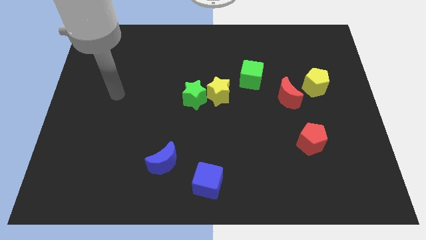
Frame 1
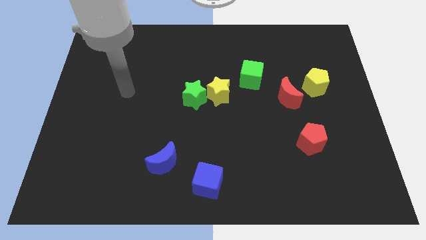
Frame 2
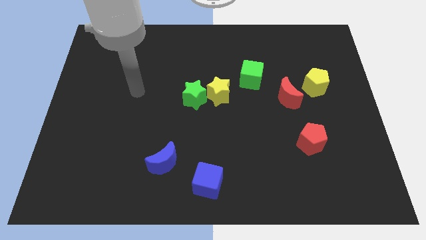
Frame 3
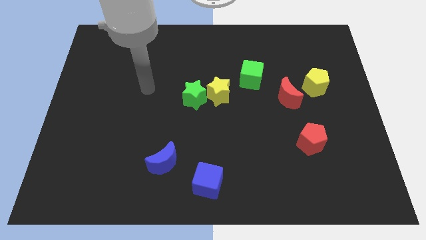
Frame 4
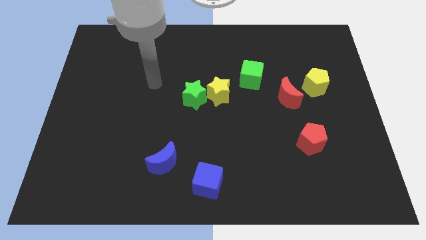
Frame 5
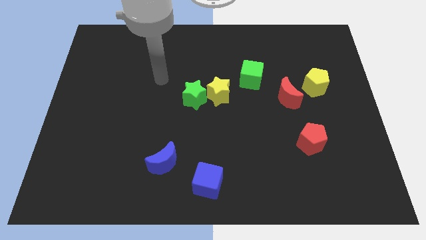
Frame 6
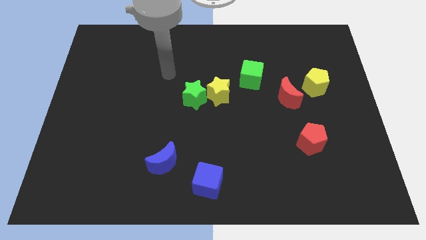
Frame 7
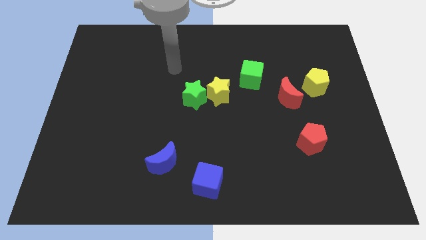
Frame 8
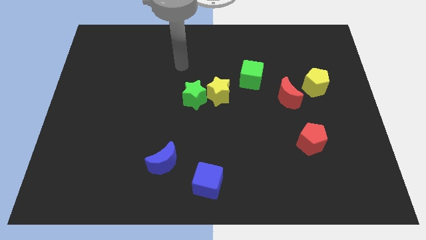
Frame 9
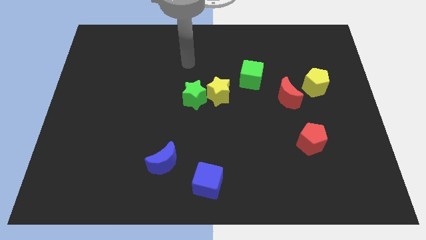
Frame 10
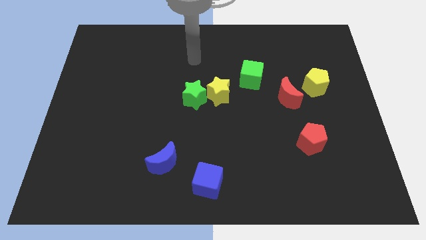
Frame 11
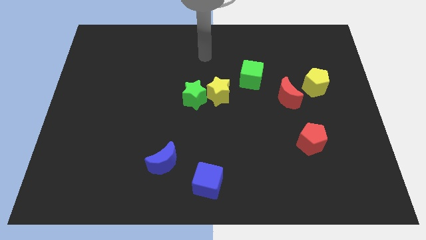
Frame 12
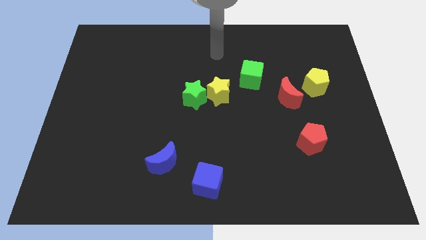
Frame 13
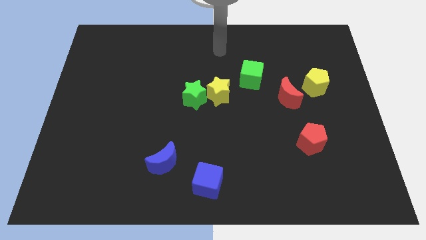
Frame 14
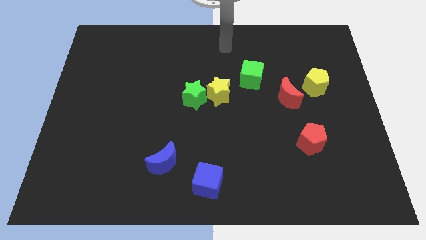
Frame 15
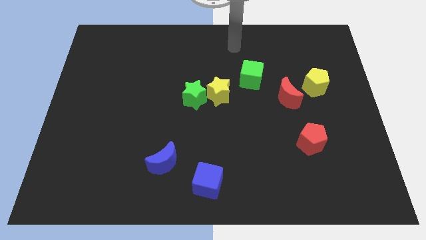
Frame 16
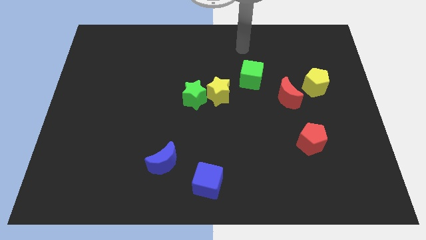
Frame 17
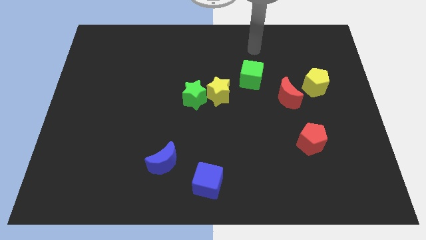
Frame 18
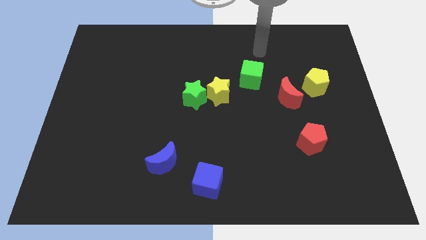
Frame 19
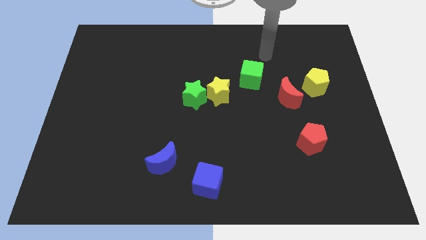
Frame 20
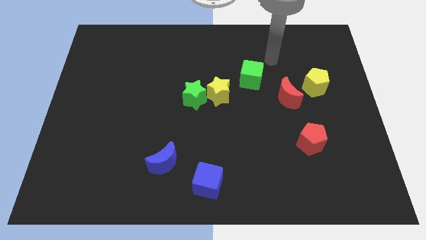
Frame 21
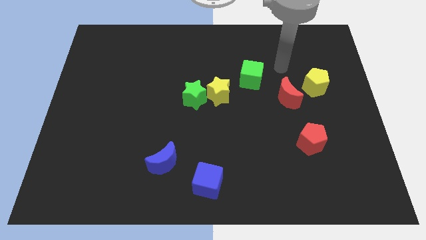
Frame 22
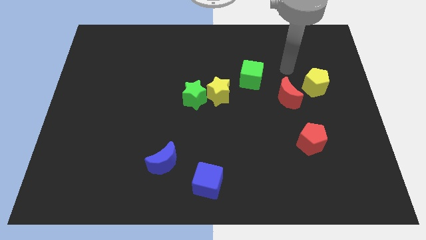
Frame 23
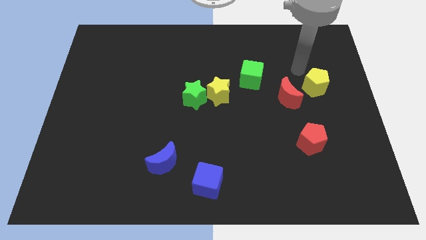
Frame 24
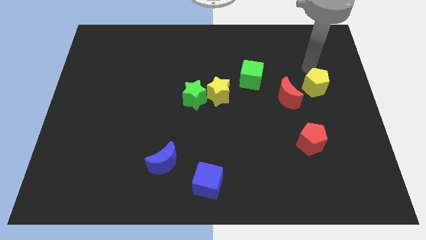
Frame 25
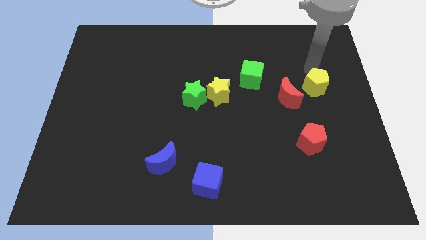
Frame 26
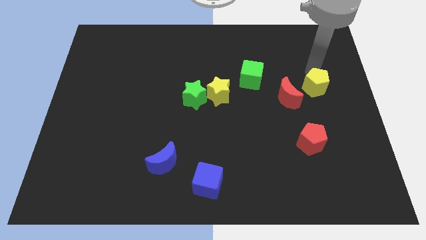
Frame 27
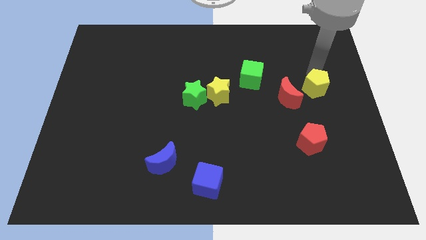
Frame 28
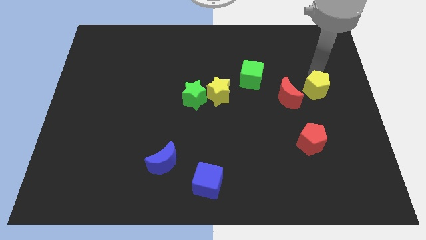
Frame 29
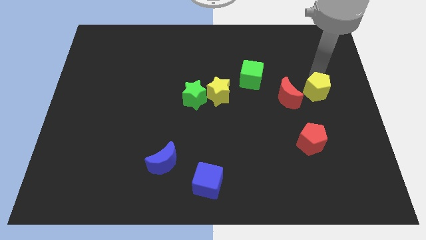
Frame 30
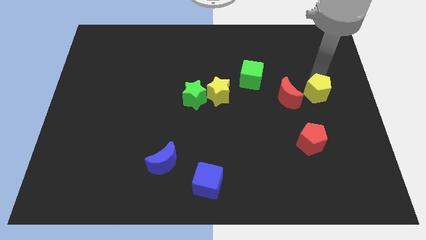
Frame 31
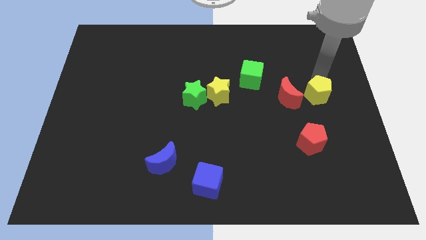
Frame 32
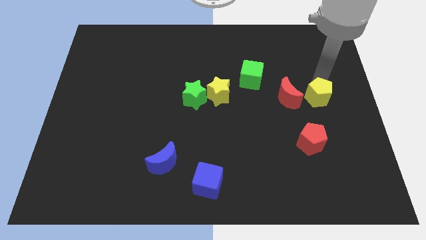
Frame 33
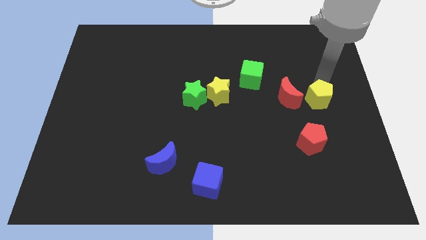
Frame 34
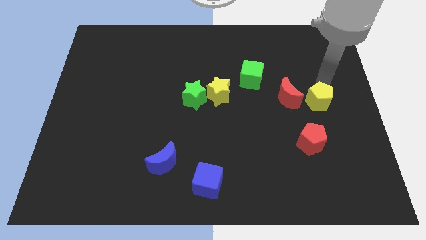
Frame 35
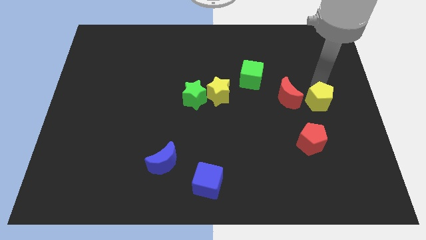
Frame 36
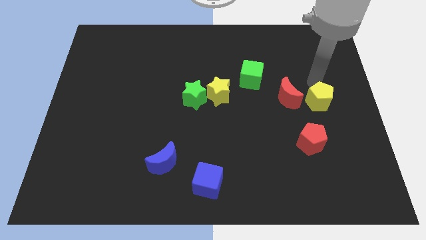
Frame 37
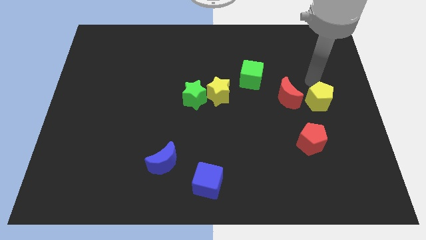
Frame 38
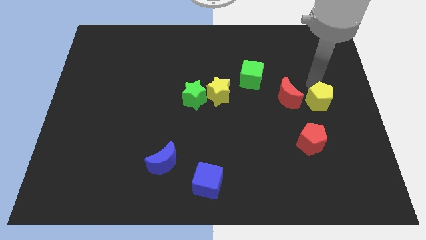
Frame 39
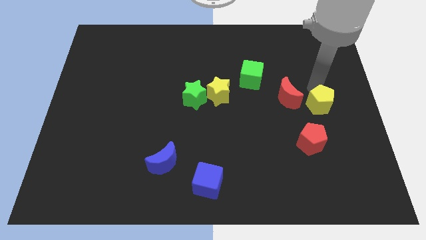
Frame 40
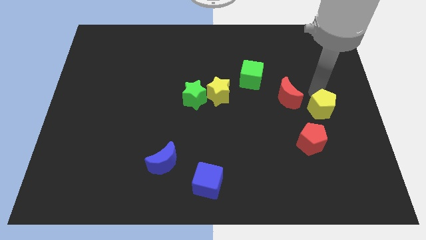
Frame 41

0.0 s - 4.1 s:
slightly slide the yellow pentagon downwards

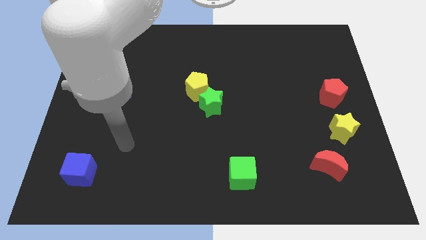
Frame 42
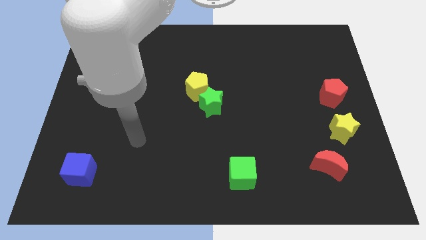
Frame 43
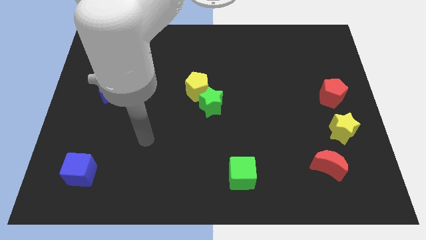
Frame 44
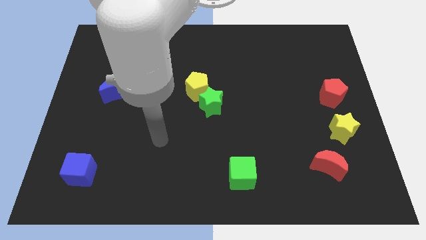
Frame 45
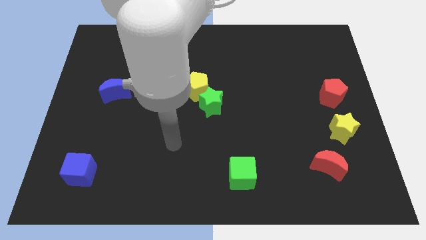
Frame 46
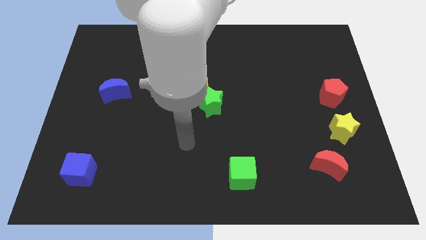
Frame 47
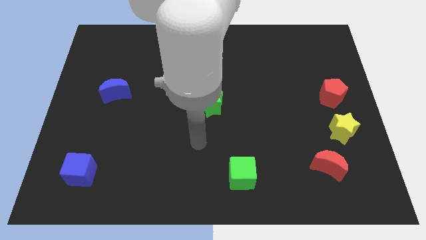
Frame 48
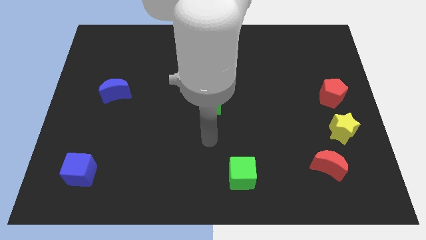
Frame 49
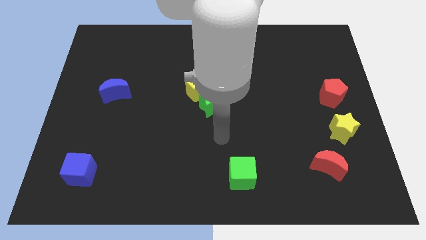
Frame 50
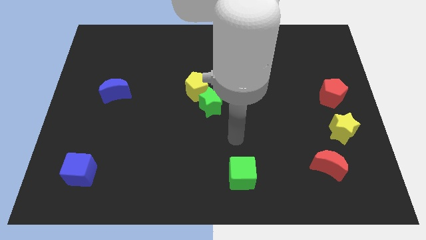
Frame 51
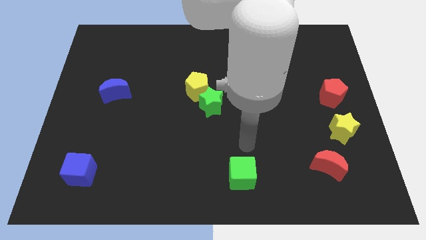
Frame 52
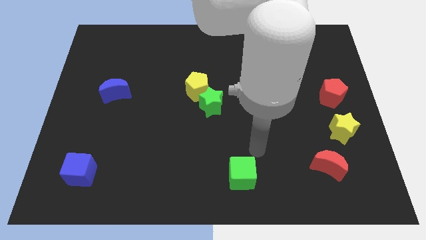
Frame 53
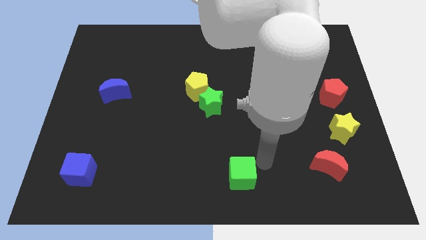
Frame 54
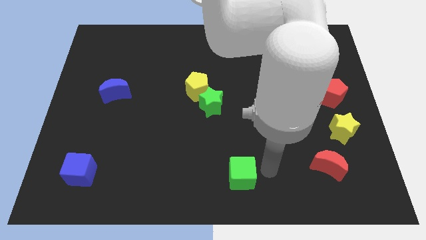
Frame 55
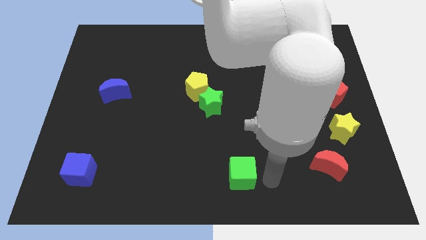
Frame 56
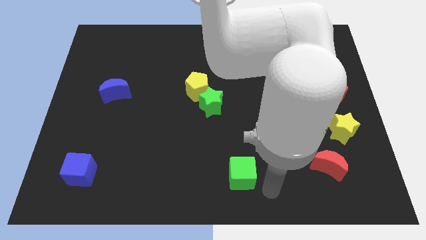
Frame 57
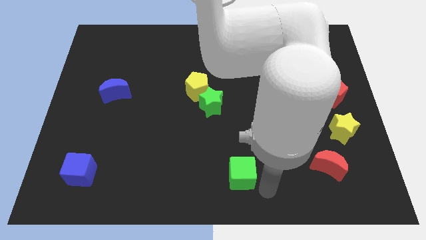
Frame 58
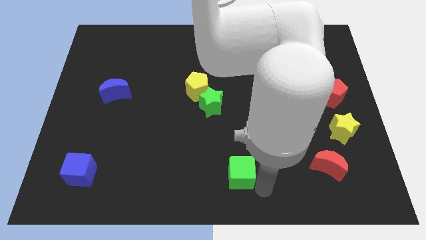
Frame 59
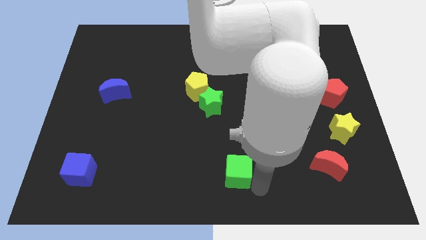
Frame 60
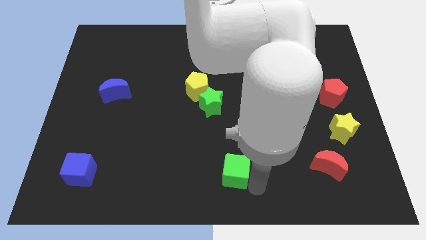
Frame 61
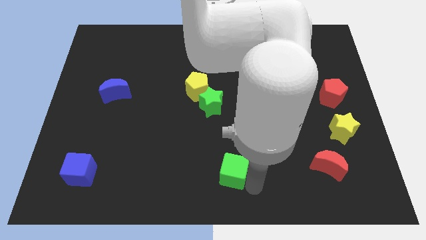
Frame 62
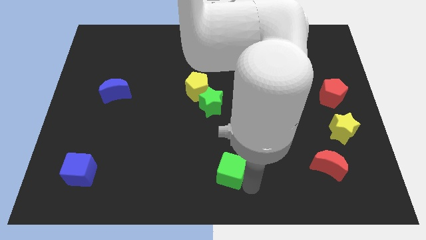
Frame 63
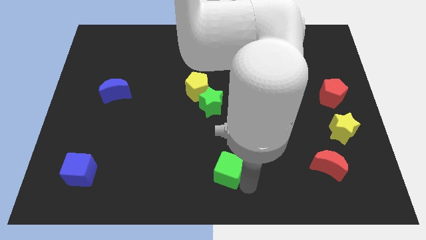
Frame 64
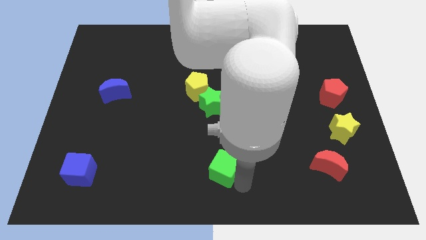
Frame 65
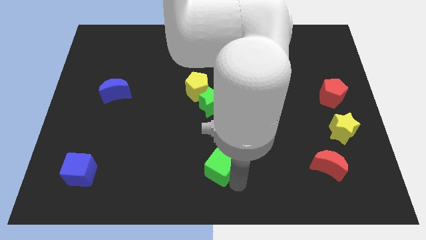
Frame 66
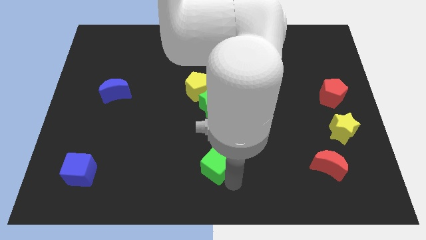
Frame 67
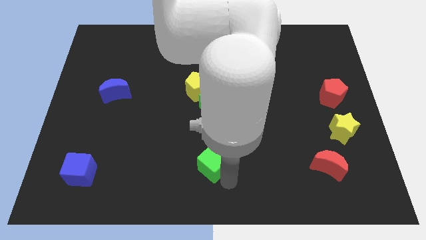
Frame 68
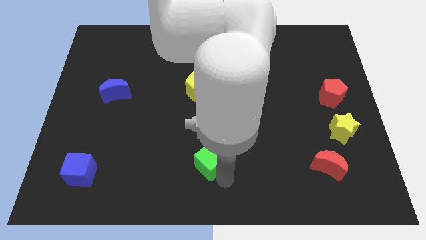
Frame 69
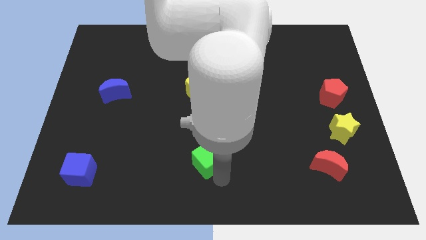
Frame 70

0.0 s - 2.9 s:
slide the green cube a little bit diagonally up and left

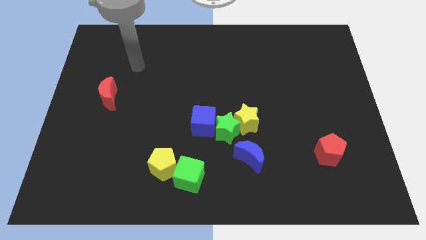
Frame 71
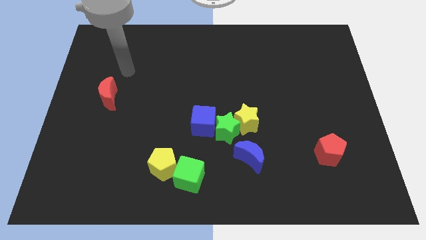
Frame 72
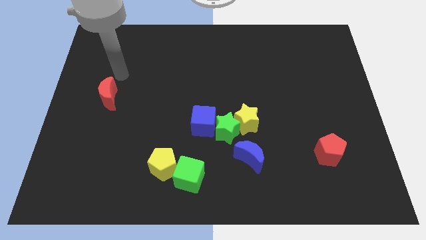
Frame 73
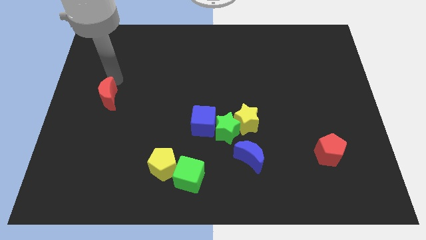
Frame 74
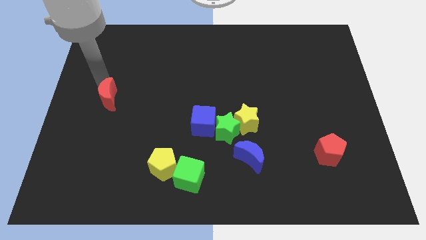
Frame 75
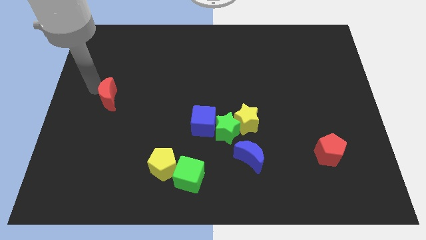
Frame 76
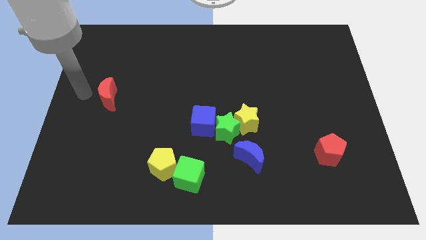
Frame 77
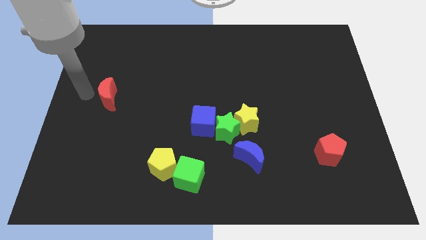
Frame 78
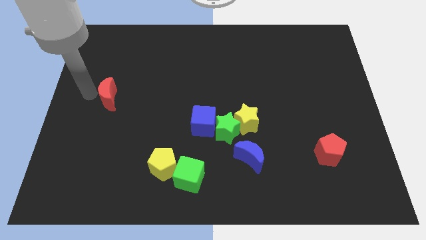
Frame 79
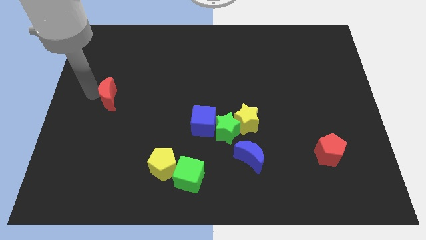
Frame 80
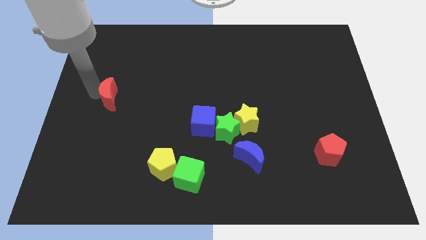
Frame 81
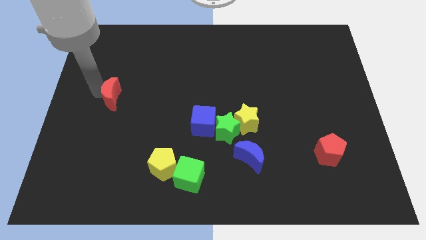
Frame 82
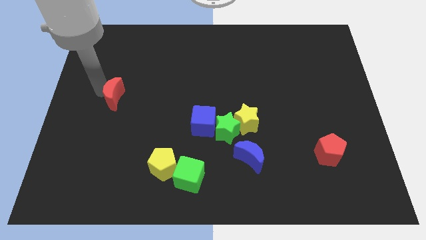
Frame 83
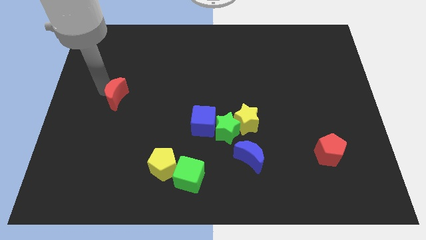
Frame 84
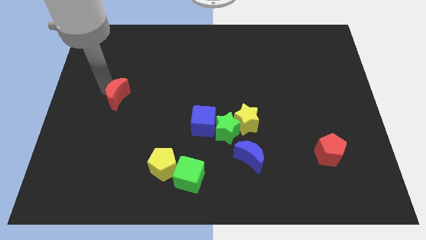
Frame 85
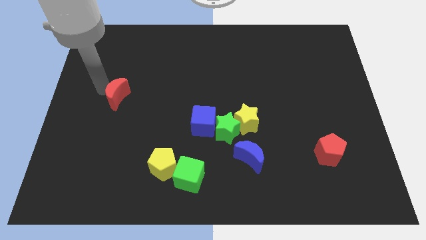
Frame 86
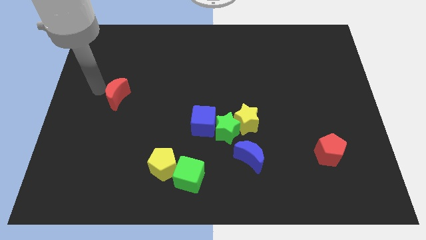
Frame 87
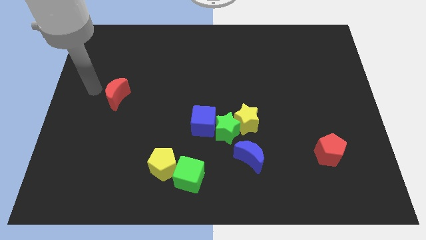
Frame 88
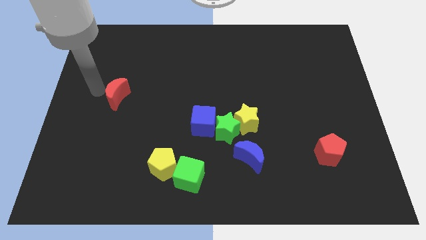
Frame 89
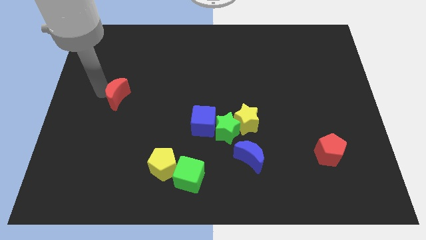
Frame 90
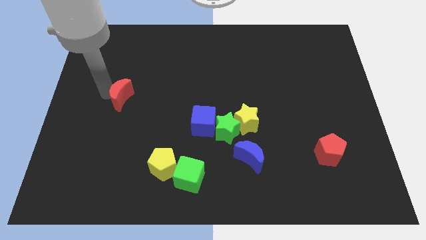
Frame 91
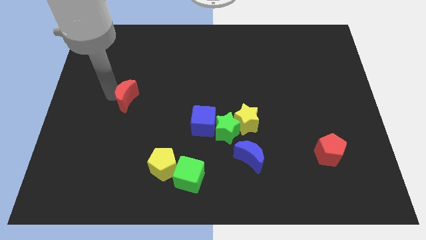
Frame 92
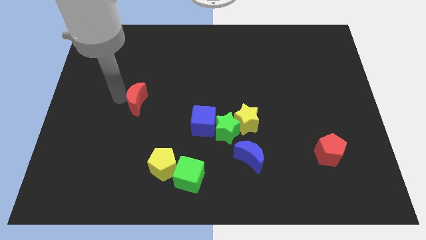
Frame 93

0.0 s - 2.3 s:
move the red moon right a little
